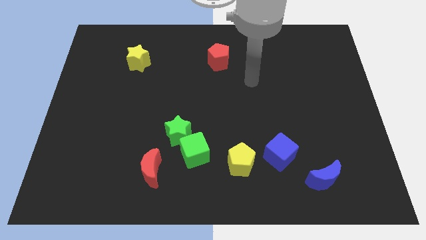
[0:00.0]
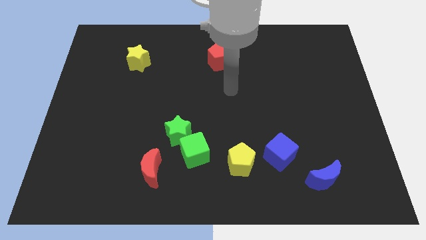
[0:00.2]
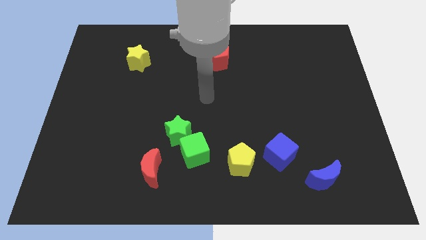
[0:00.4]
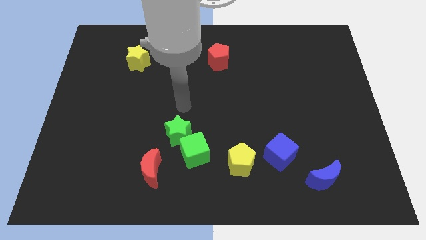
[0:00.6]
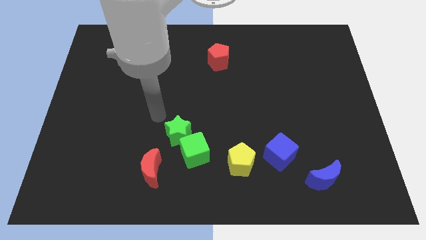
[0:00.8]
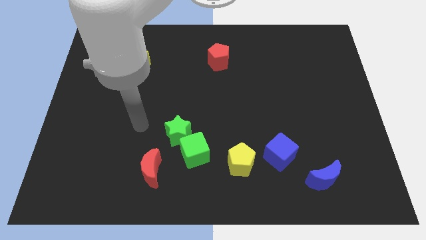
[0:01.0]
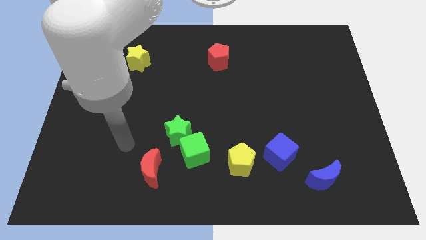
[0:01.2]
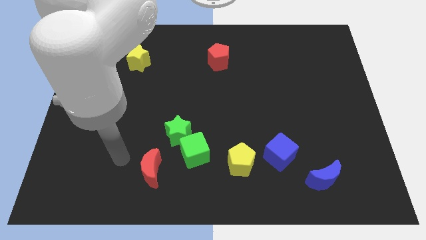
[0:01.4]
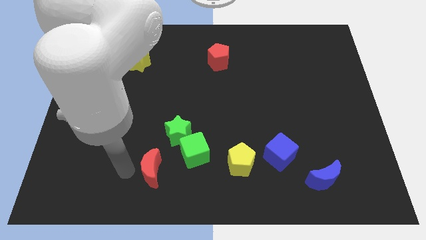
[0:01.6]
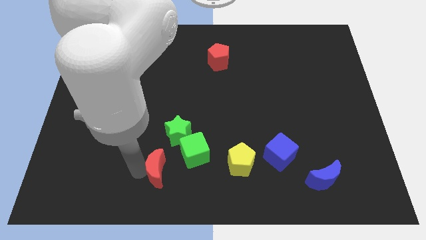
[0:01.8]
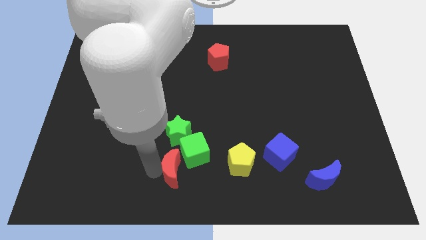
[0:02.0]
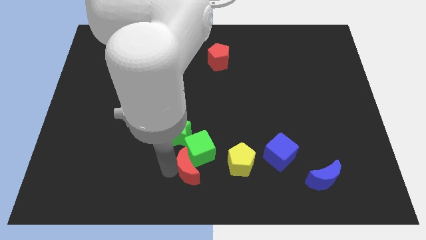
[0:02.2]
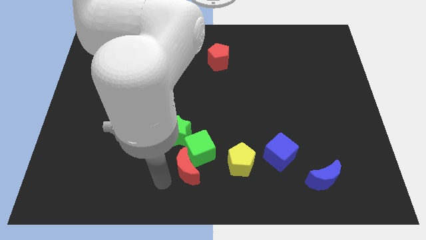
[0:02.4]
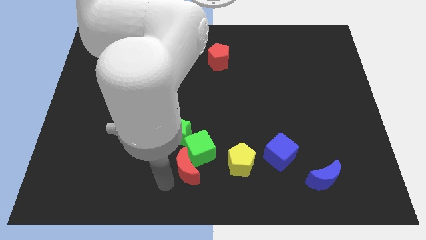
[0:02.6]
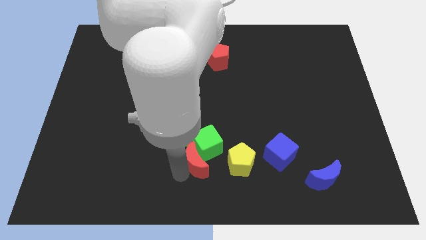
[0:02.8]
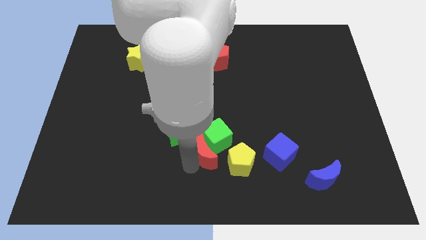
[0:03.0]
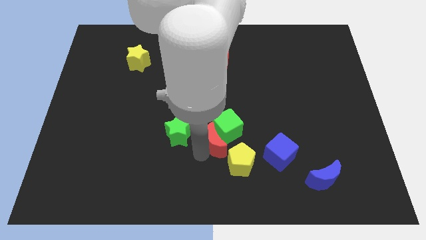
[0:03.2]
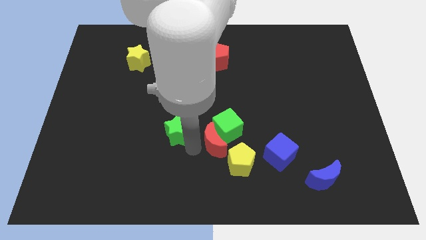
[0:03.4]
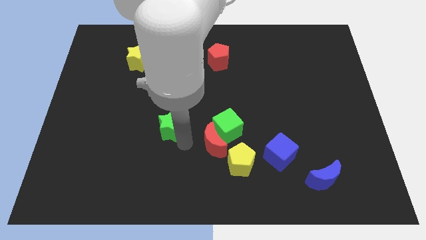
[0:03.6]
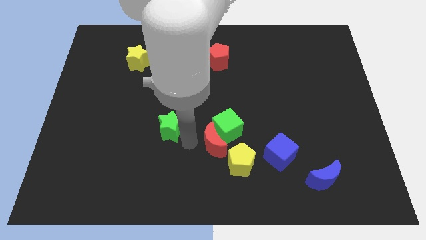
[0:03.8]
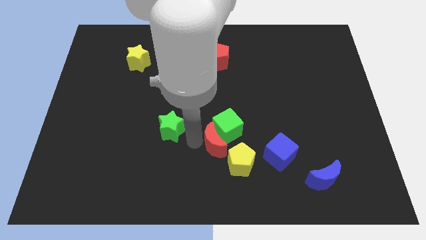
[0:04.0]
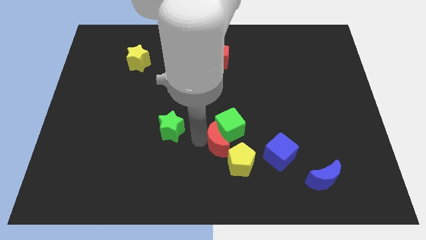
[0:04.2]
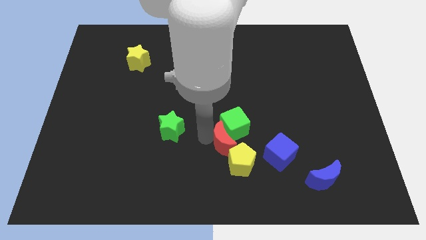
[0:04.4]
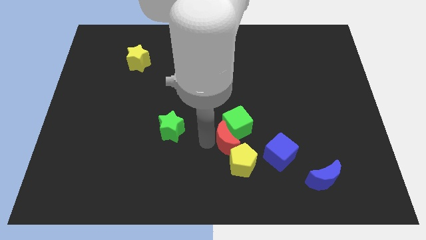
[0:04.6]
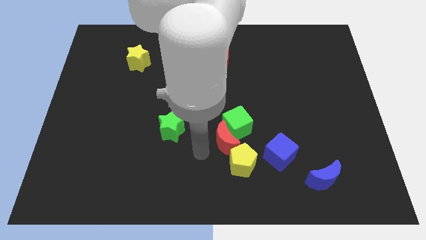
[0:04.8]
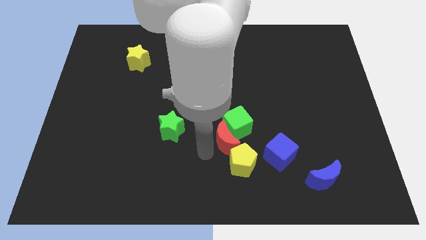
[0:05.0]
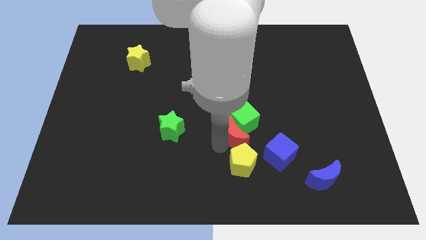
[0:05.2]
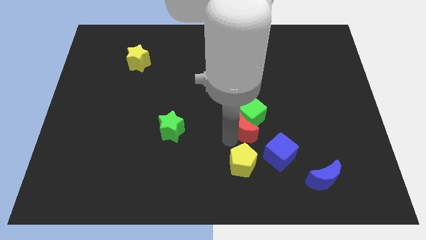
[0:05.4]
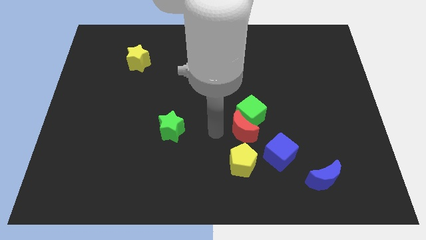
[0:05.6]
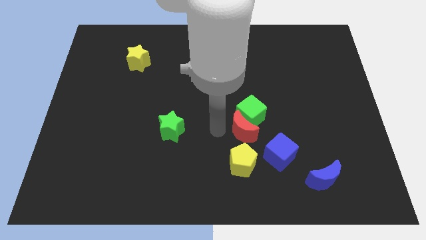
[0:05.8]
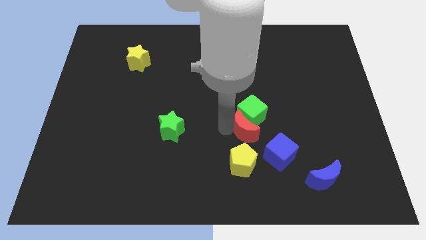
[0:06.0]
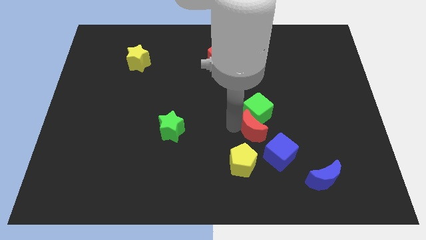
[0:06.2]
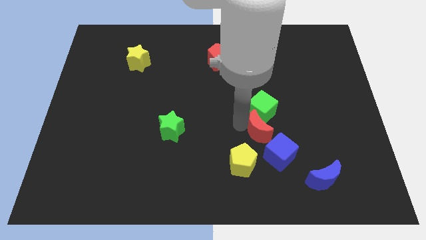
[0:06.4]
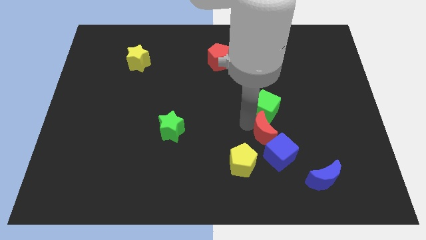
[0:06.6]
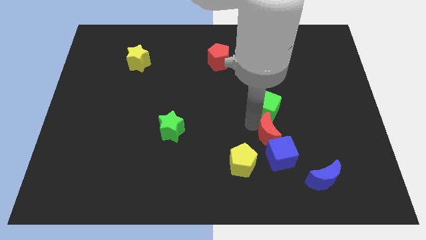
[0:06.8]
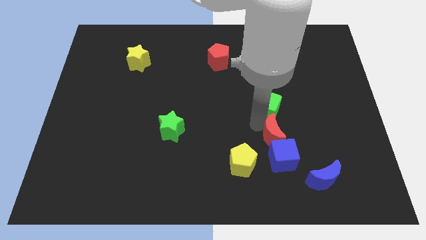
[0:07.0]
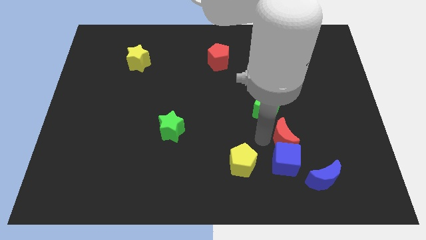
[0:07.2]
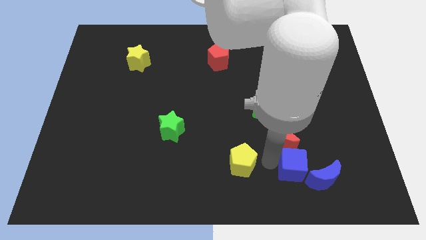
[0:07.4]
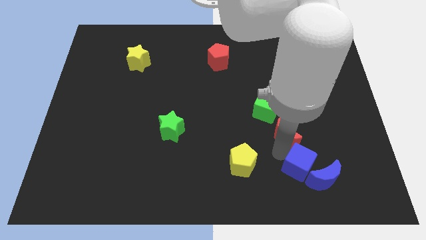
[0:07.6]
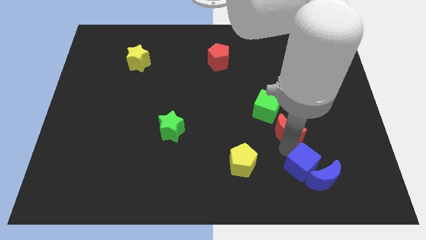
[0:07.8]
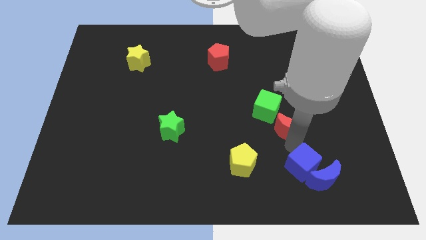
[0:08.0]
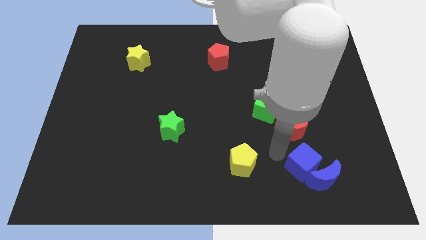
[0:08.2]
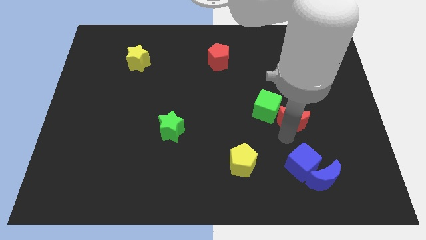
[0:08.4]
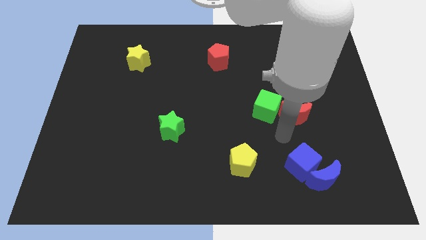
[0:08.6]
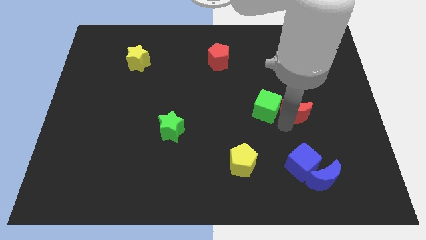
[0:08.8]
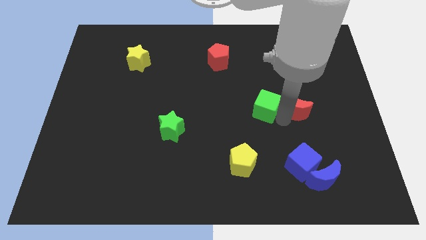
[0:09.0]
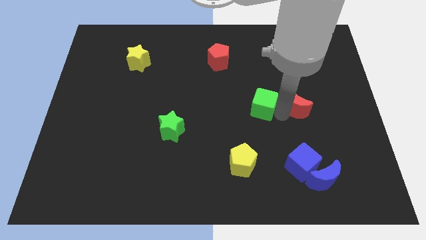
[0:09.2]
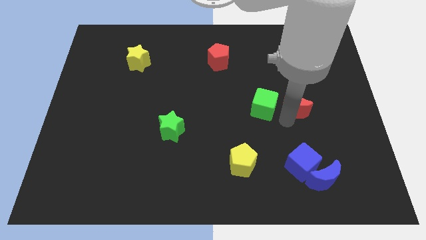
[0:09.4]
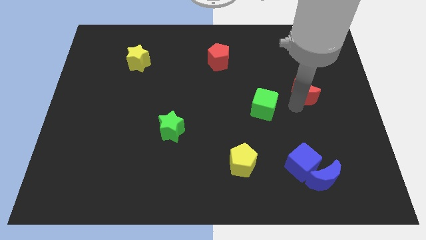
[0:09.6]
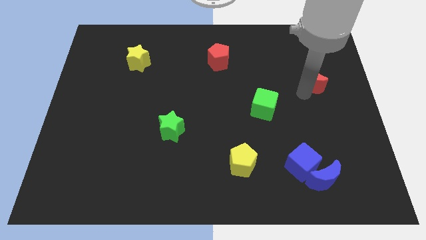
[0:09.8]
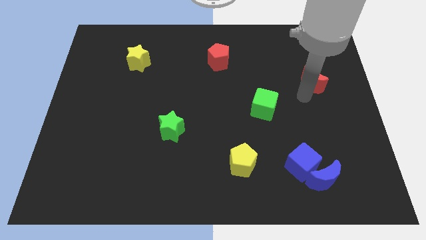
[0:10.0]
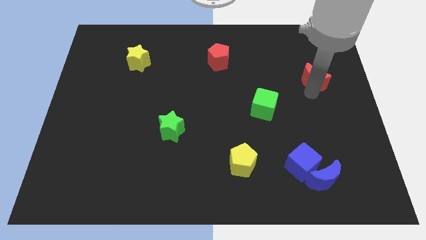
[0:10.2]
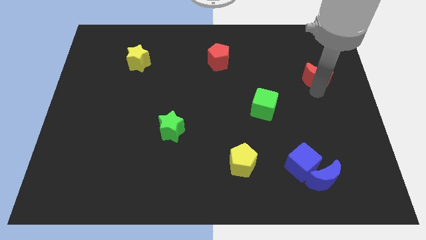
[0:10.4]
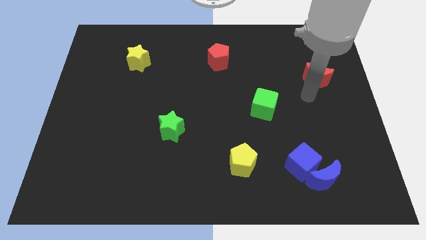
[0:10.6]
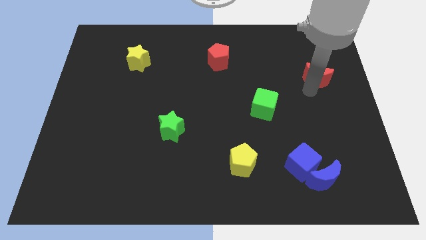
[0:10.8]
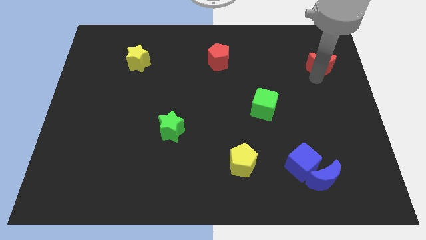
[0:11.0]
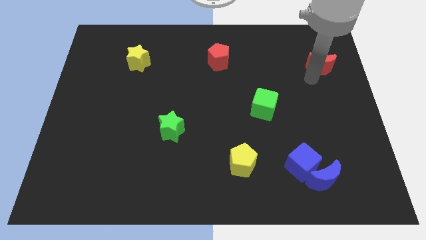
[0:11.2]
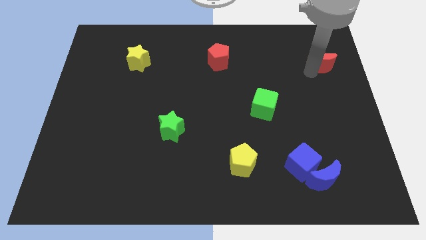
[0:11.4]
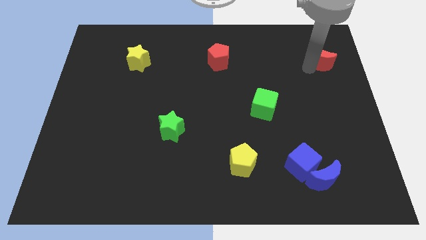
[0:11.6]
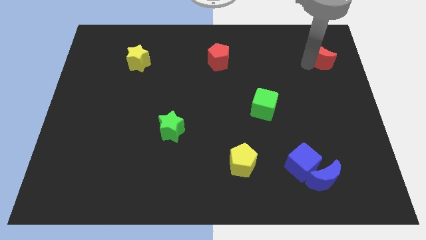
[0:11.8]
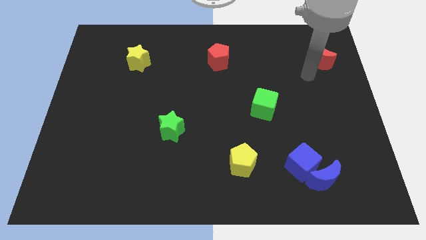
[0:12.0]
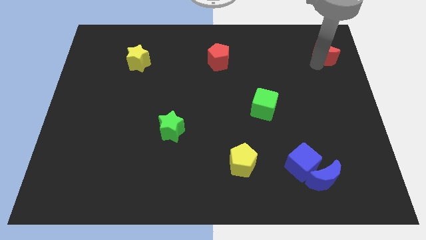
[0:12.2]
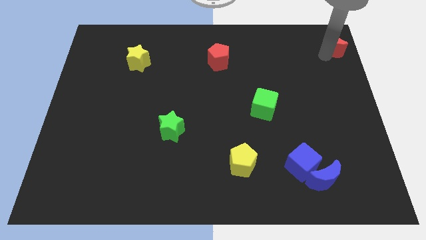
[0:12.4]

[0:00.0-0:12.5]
put the red moon to the top right

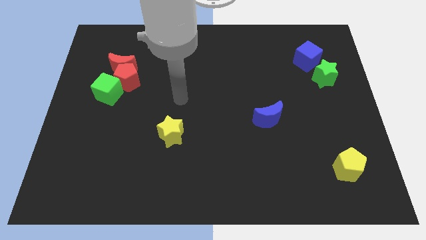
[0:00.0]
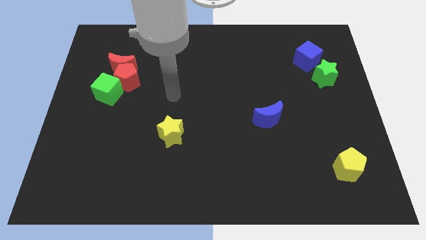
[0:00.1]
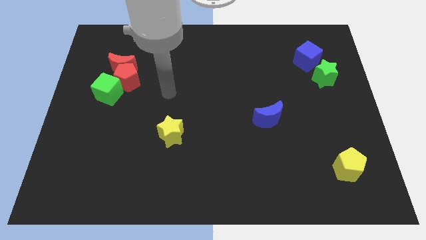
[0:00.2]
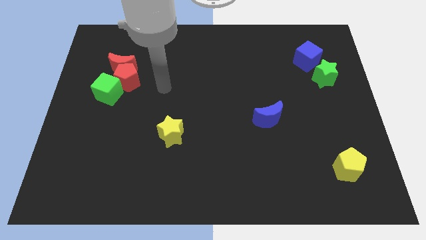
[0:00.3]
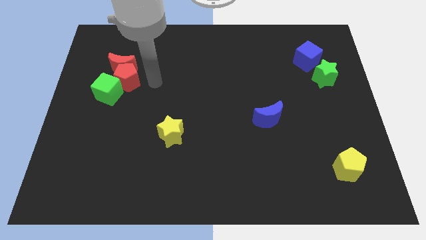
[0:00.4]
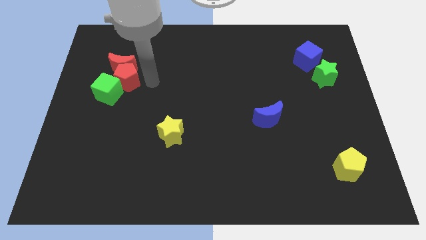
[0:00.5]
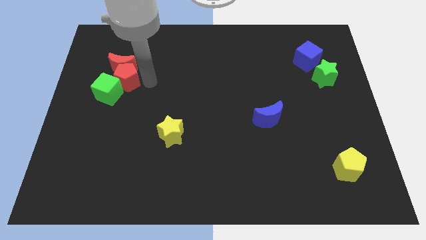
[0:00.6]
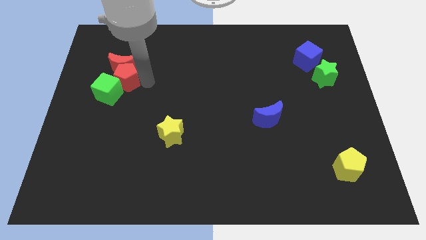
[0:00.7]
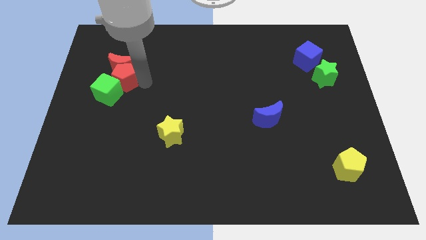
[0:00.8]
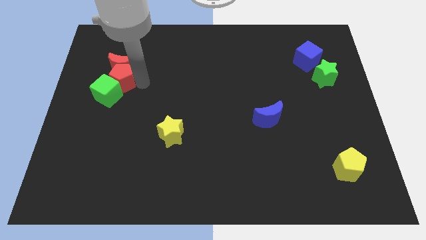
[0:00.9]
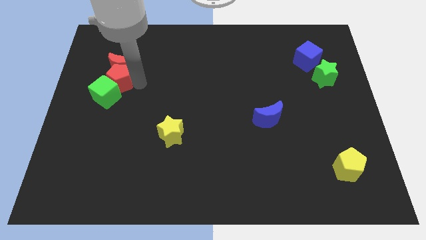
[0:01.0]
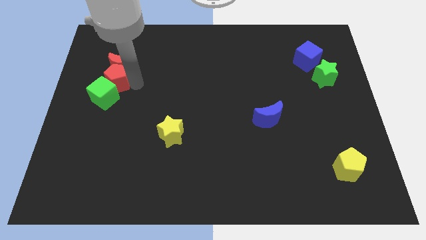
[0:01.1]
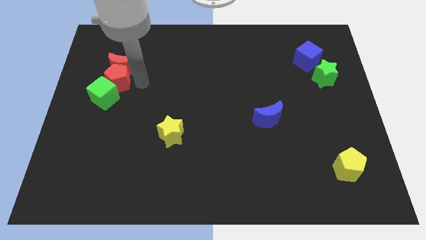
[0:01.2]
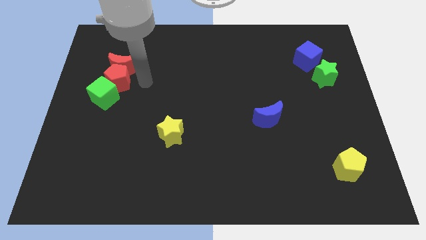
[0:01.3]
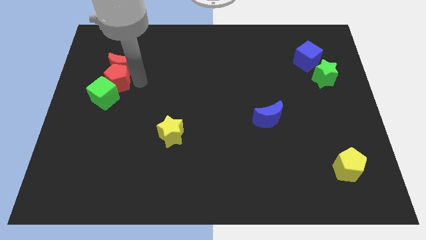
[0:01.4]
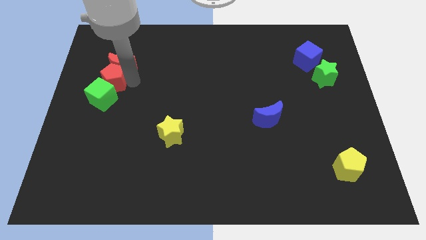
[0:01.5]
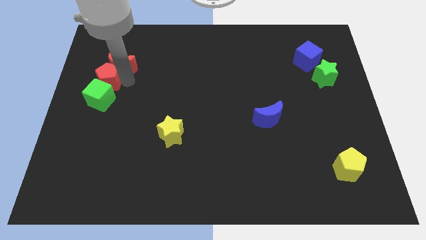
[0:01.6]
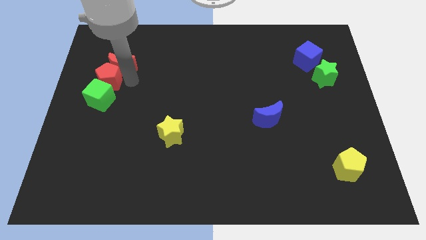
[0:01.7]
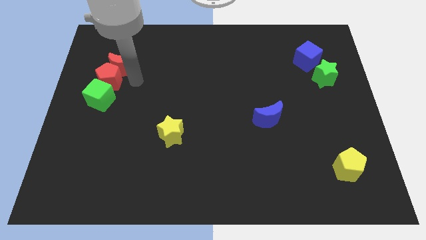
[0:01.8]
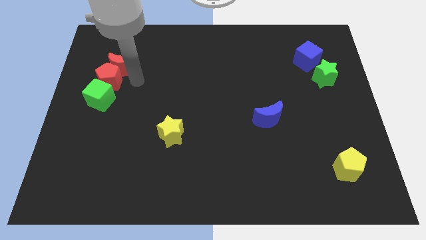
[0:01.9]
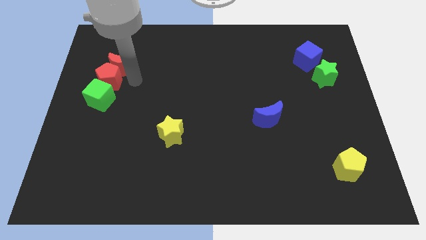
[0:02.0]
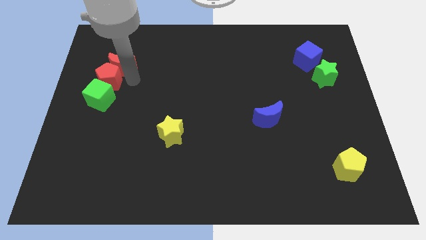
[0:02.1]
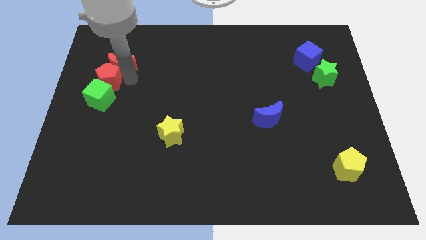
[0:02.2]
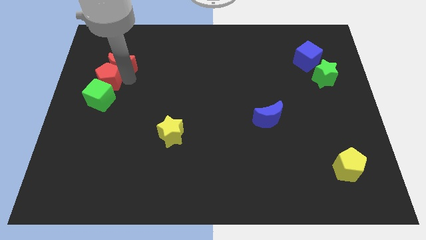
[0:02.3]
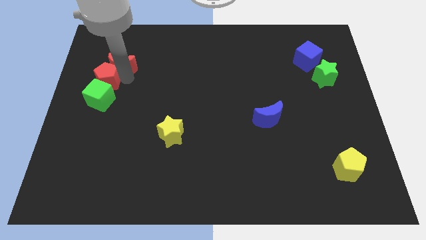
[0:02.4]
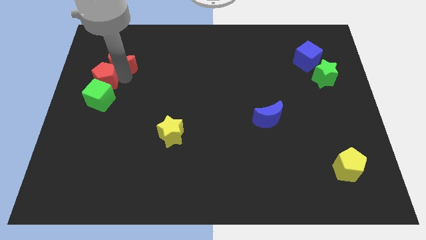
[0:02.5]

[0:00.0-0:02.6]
put the red pentagon to the center left
